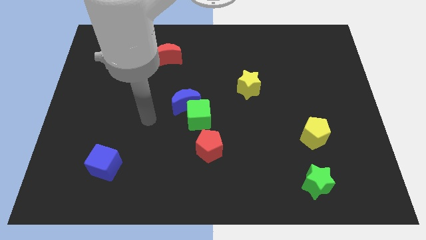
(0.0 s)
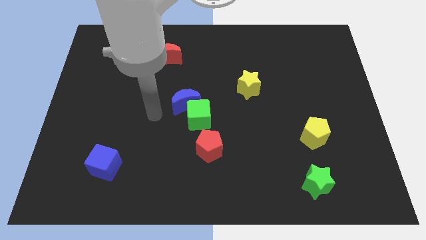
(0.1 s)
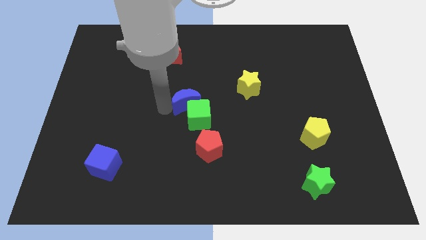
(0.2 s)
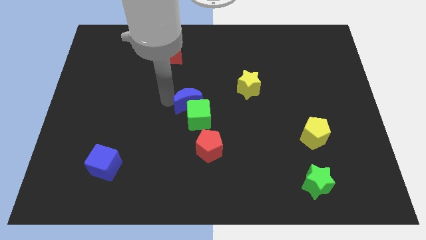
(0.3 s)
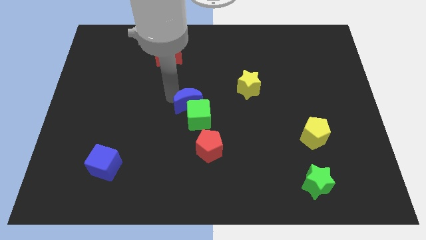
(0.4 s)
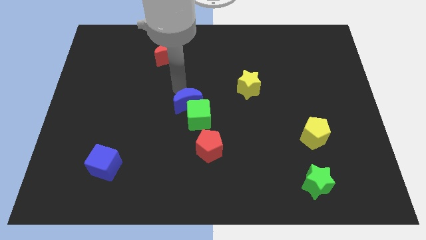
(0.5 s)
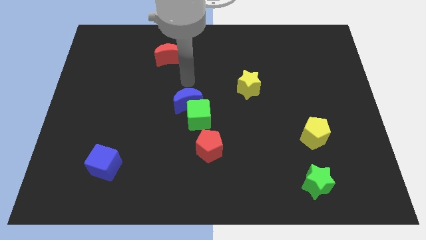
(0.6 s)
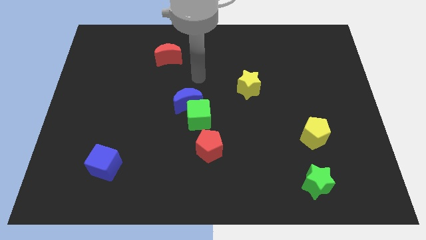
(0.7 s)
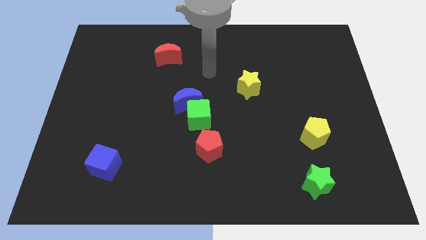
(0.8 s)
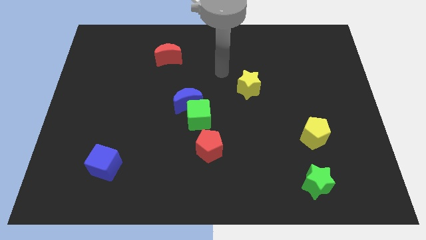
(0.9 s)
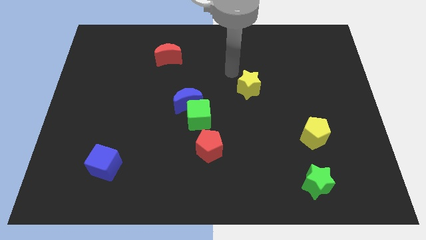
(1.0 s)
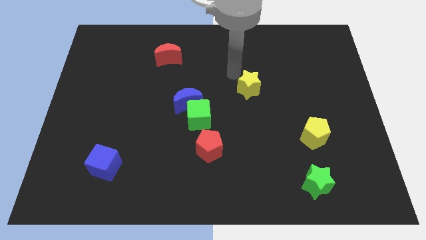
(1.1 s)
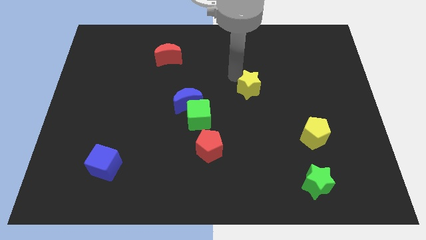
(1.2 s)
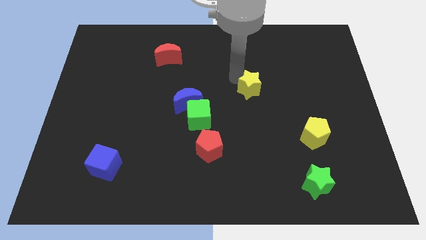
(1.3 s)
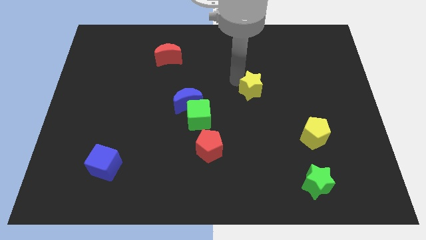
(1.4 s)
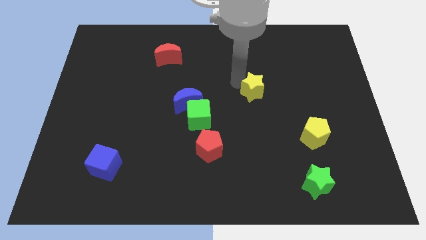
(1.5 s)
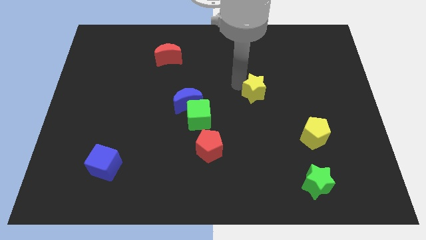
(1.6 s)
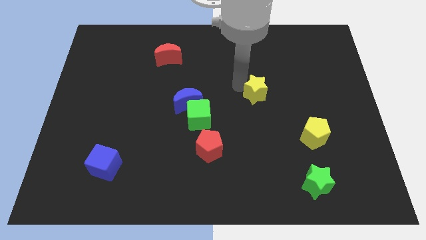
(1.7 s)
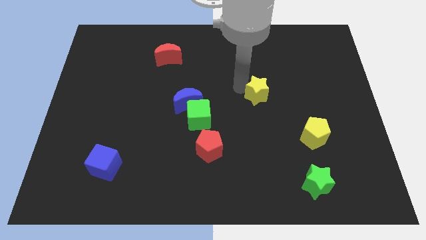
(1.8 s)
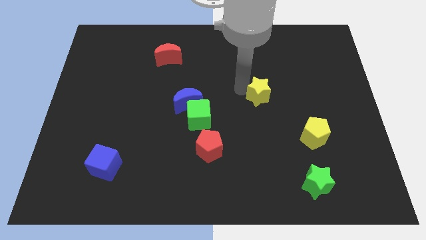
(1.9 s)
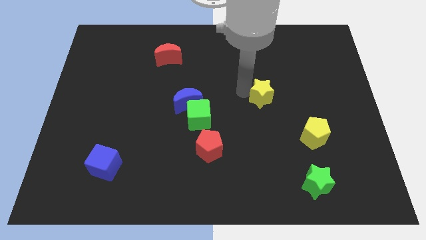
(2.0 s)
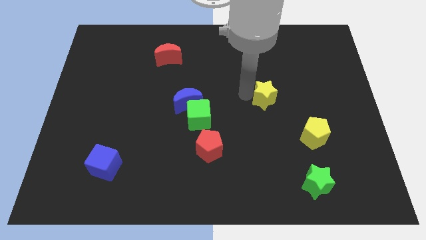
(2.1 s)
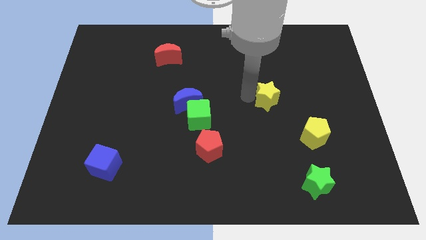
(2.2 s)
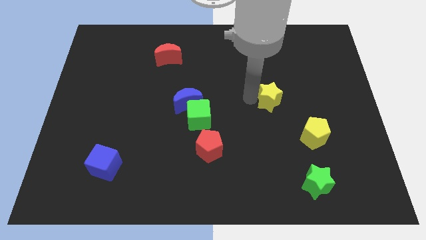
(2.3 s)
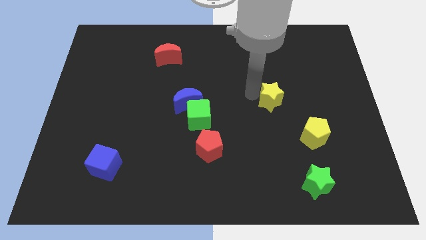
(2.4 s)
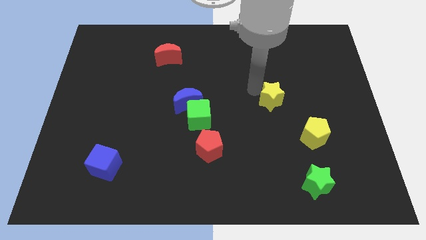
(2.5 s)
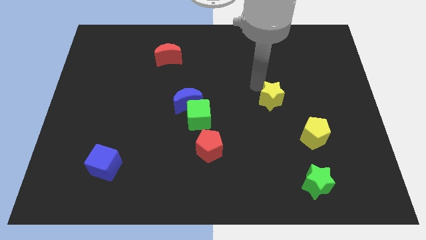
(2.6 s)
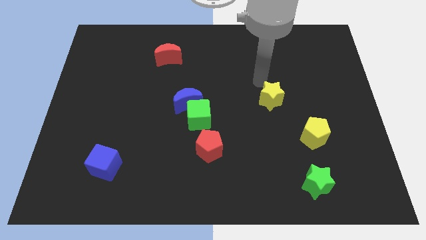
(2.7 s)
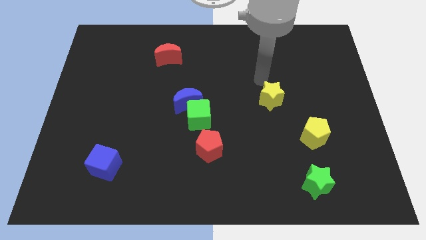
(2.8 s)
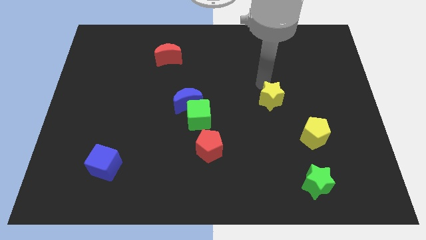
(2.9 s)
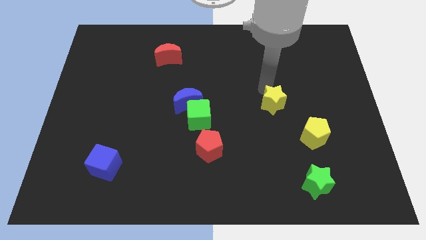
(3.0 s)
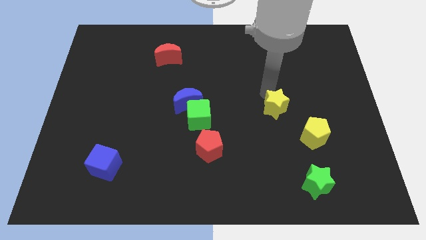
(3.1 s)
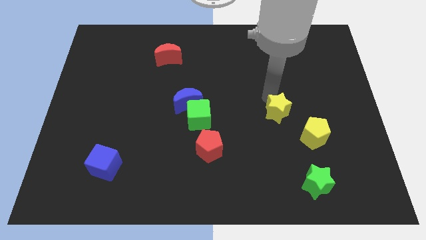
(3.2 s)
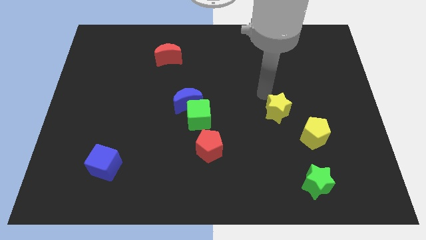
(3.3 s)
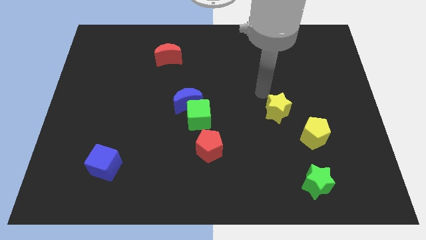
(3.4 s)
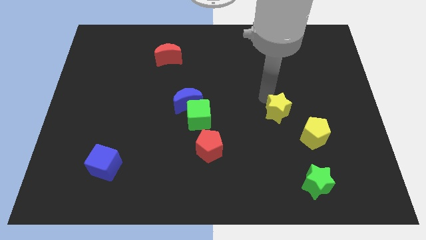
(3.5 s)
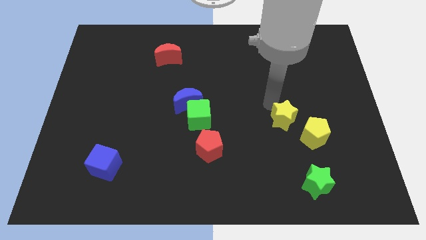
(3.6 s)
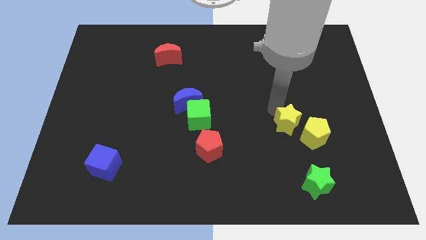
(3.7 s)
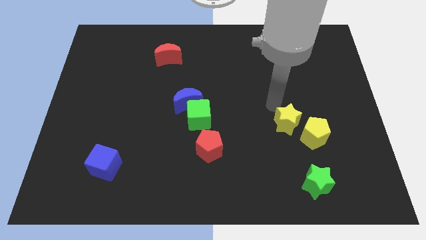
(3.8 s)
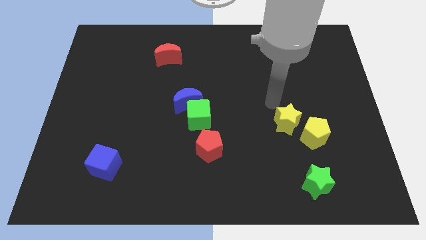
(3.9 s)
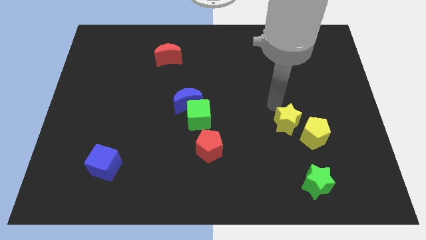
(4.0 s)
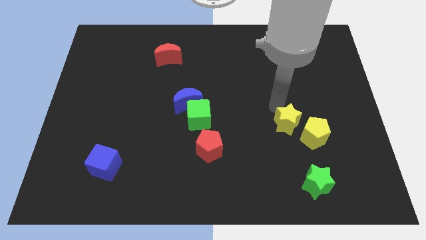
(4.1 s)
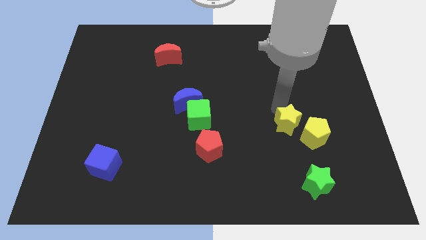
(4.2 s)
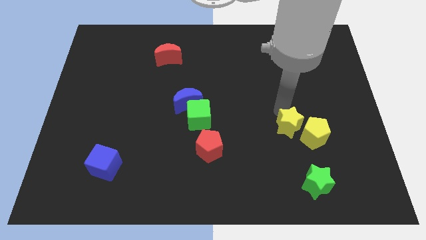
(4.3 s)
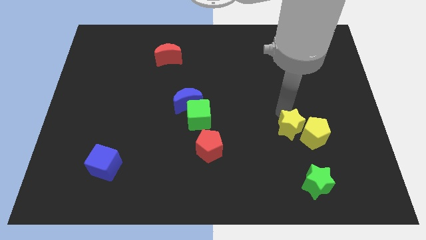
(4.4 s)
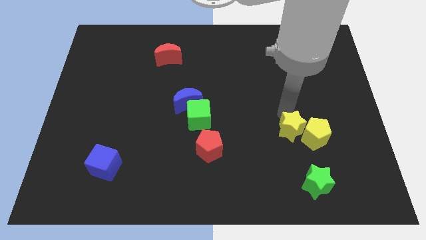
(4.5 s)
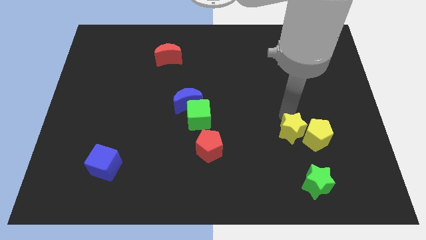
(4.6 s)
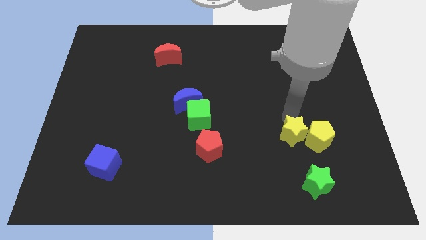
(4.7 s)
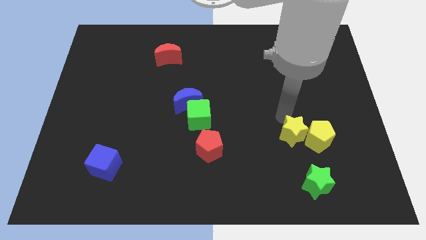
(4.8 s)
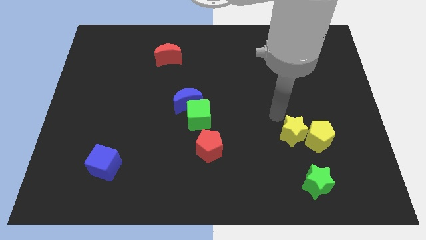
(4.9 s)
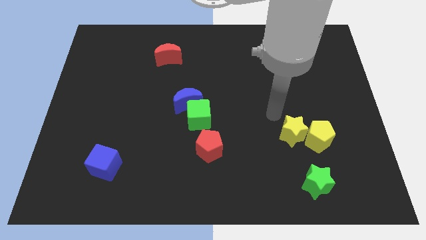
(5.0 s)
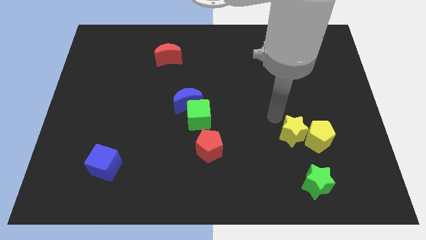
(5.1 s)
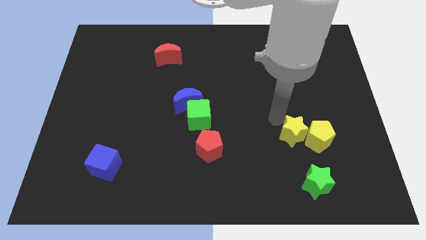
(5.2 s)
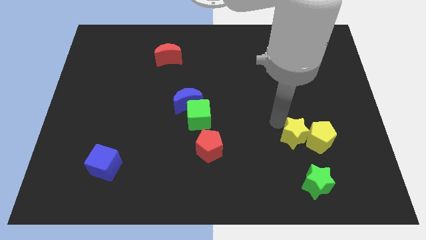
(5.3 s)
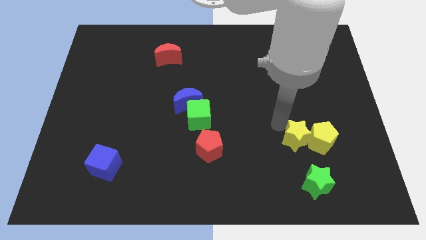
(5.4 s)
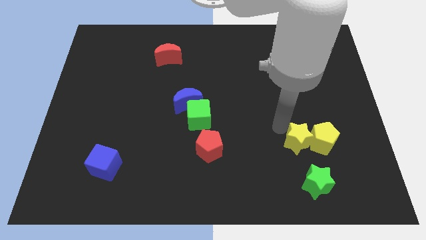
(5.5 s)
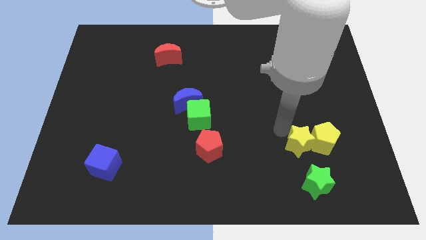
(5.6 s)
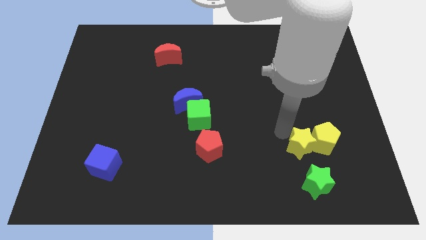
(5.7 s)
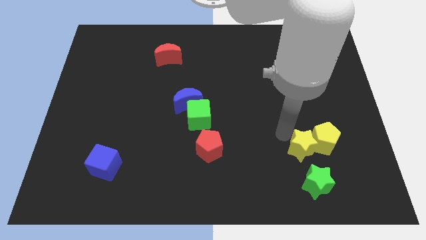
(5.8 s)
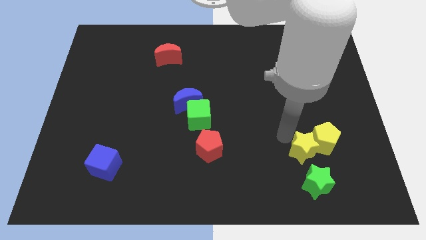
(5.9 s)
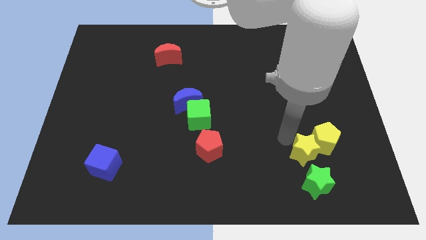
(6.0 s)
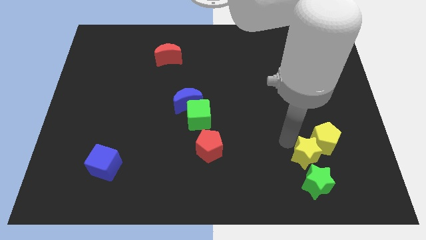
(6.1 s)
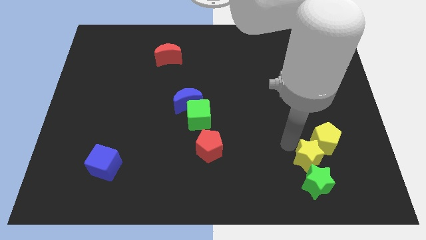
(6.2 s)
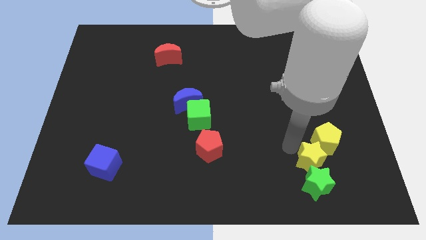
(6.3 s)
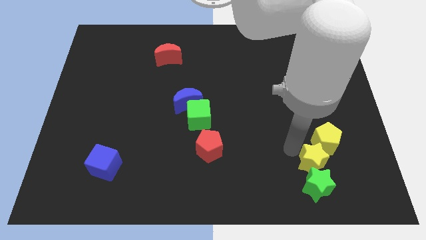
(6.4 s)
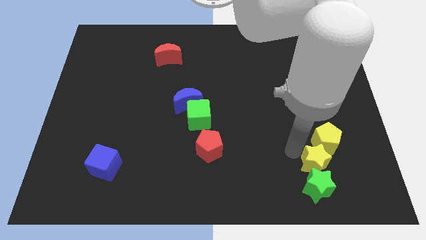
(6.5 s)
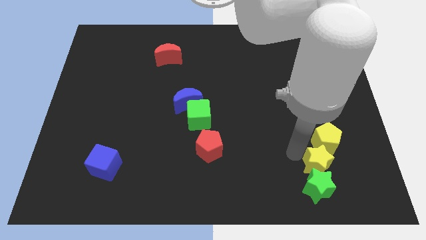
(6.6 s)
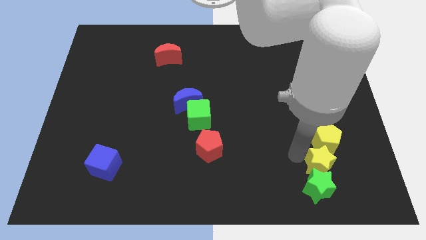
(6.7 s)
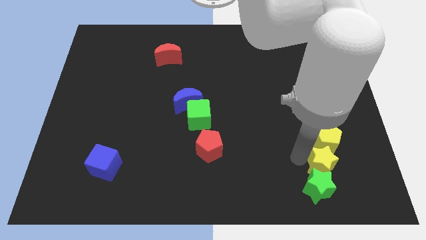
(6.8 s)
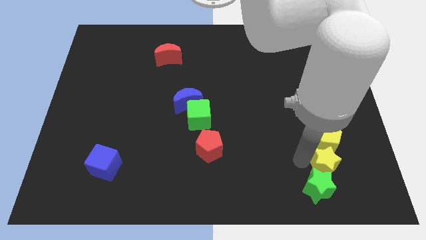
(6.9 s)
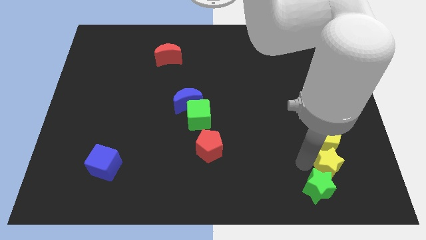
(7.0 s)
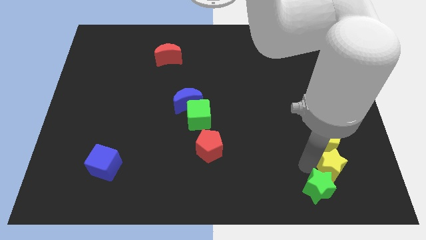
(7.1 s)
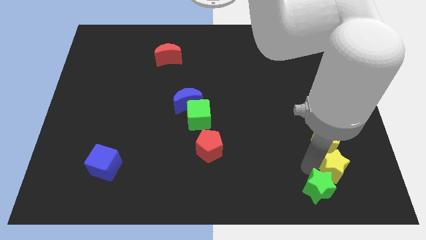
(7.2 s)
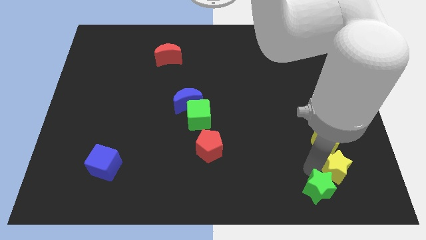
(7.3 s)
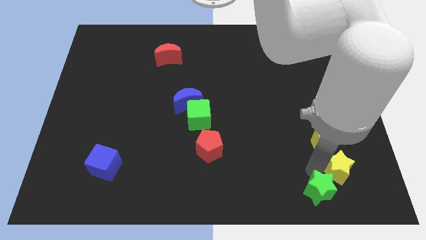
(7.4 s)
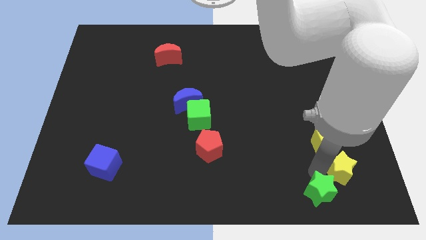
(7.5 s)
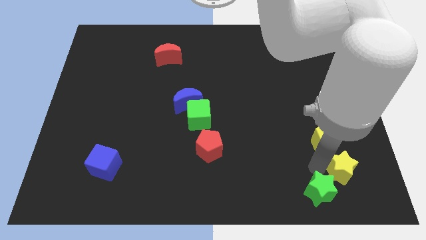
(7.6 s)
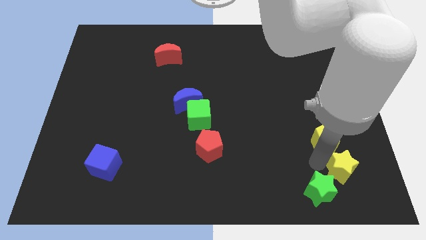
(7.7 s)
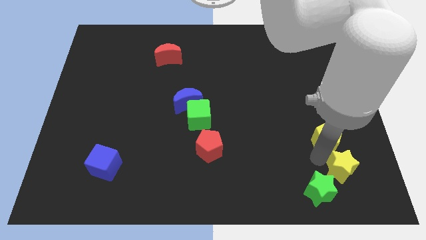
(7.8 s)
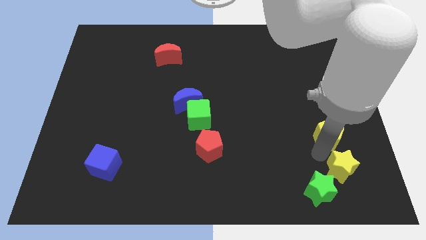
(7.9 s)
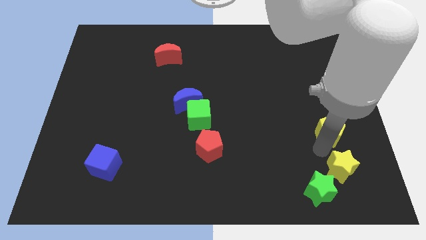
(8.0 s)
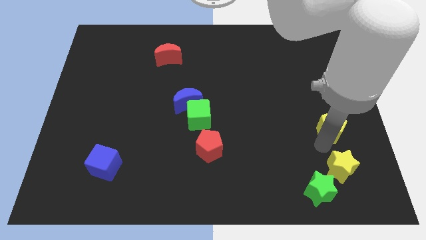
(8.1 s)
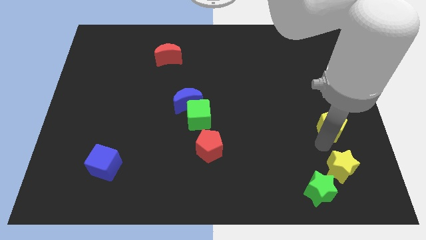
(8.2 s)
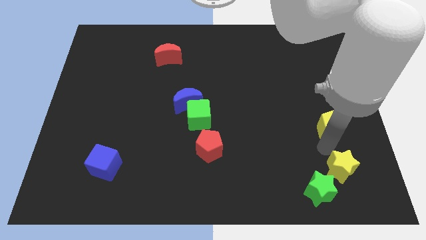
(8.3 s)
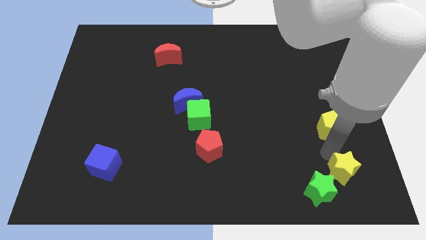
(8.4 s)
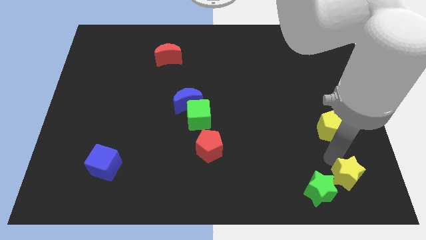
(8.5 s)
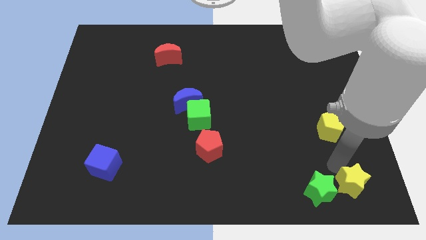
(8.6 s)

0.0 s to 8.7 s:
push the yellow star to the bottom right of the board
